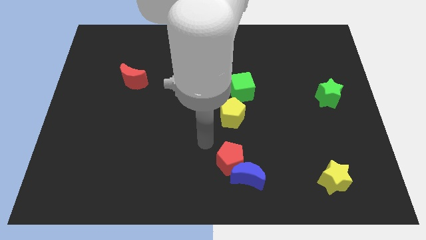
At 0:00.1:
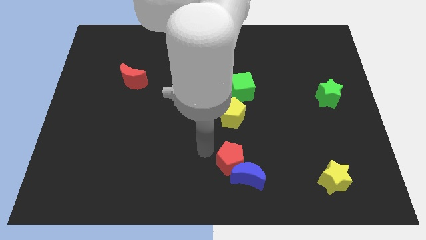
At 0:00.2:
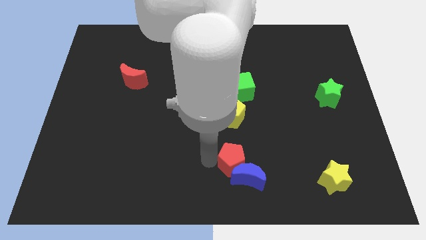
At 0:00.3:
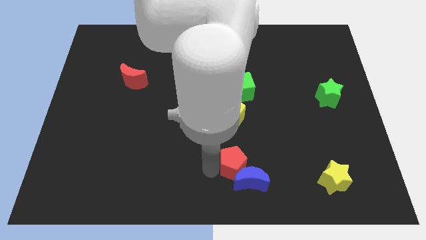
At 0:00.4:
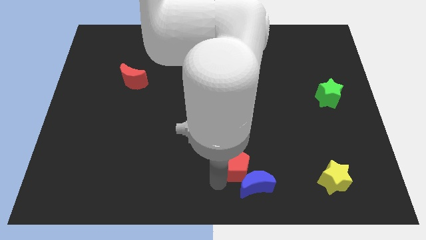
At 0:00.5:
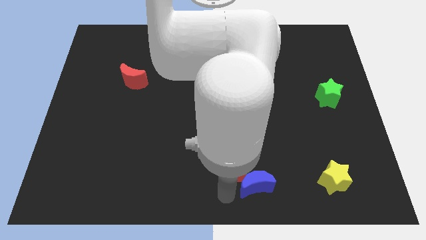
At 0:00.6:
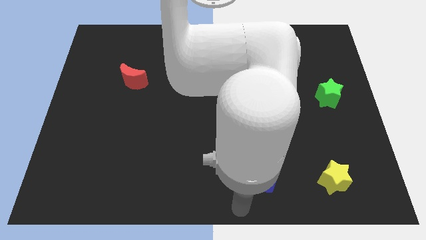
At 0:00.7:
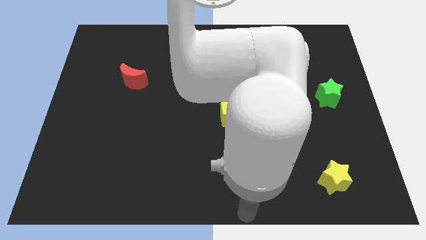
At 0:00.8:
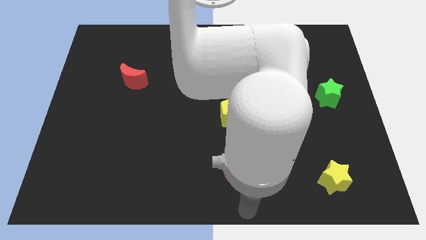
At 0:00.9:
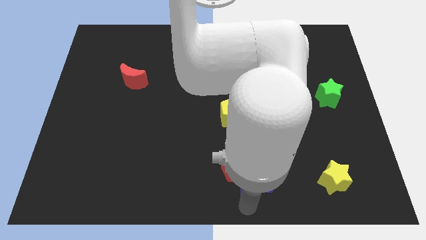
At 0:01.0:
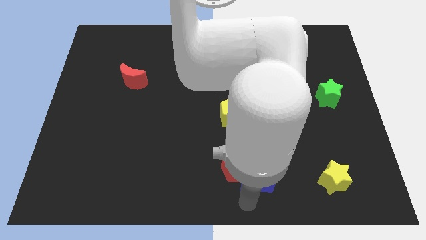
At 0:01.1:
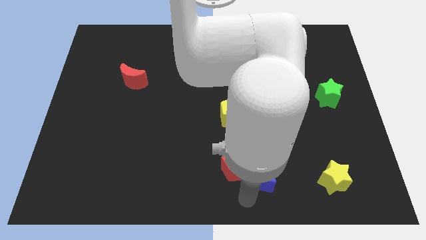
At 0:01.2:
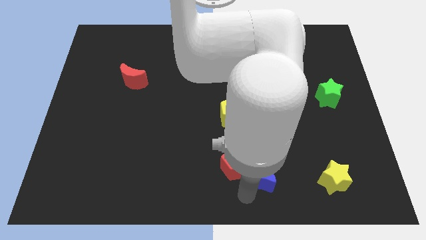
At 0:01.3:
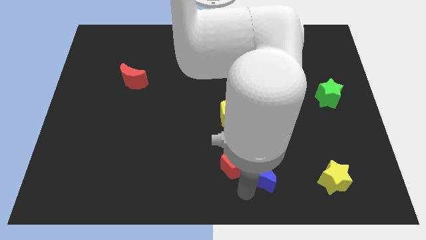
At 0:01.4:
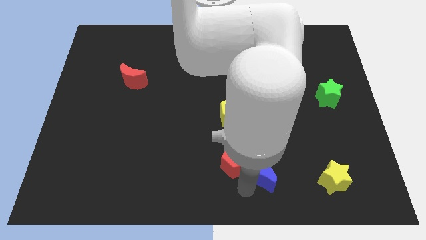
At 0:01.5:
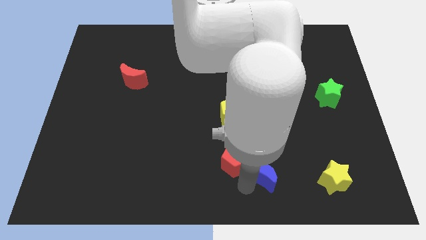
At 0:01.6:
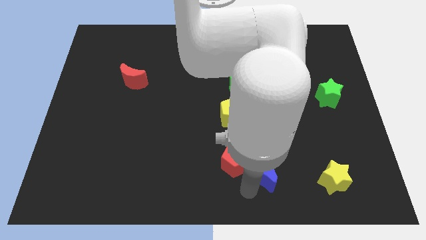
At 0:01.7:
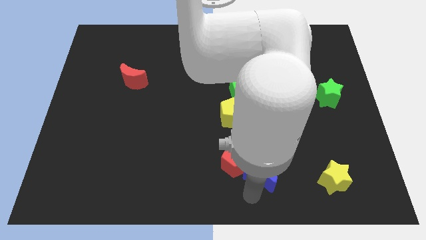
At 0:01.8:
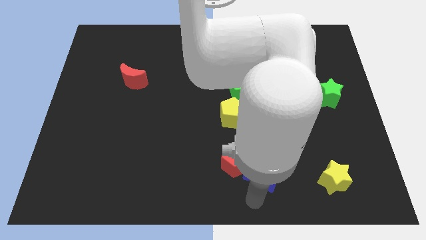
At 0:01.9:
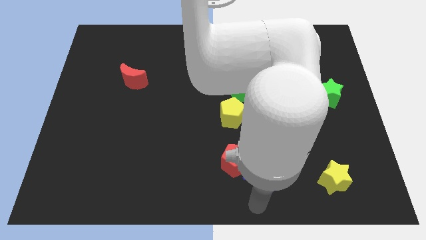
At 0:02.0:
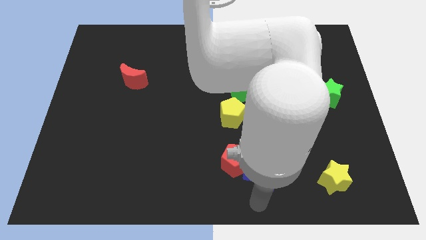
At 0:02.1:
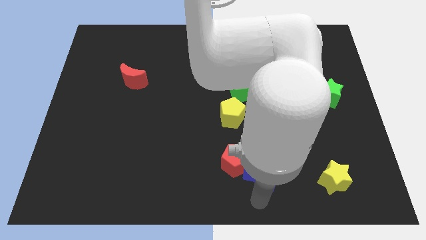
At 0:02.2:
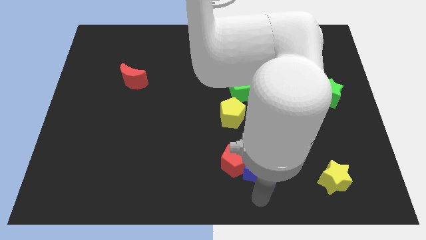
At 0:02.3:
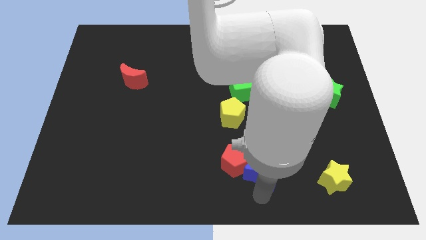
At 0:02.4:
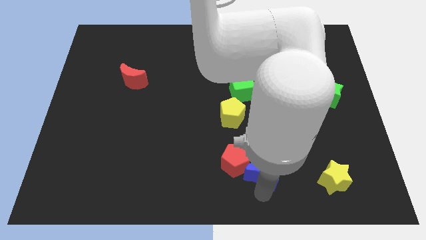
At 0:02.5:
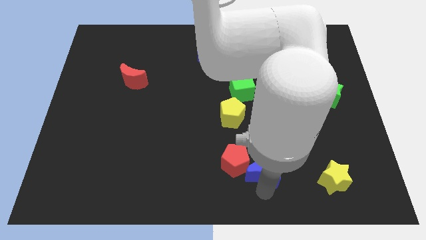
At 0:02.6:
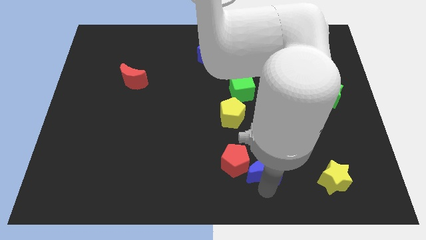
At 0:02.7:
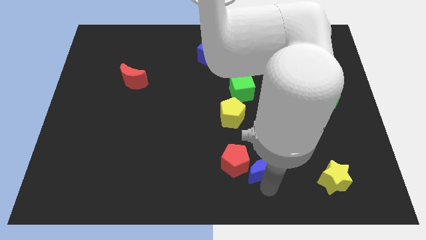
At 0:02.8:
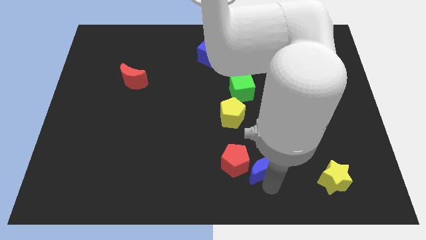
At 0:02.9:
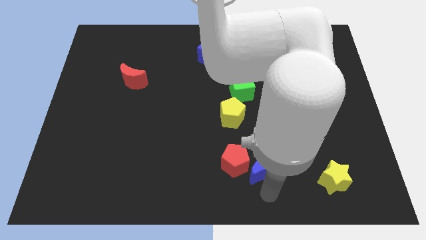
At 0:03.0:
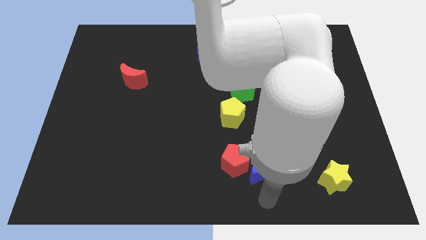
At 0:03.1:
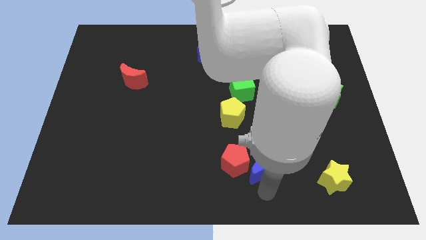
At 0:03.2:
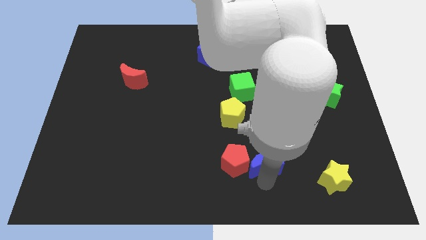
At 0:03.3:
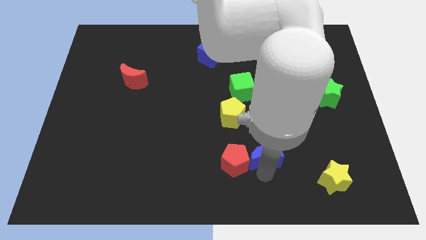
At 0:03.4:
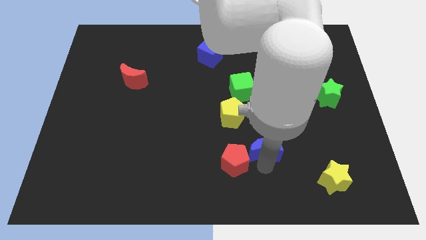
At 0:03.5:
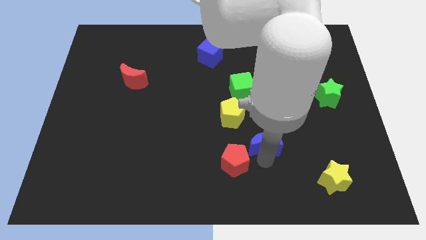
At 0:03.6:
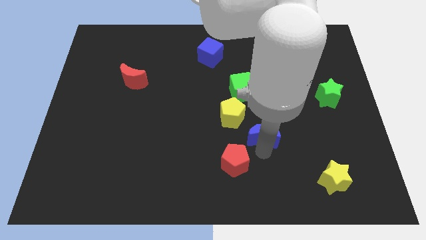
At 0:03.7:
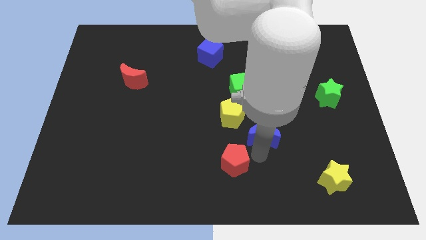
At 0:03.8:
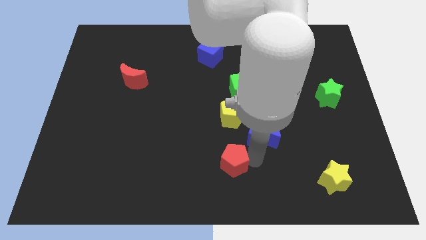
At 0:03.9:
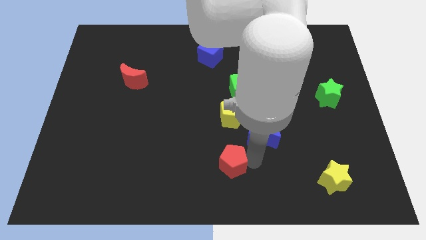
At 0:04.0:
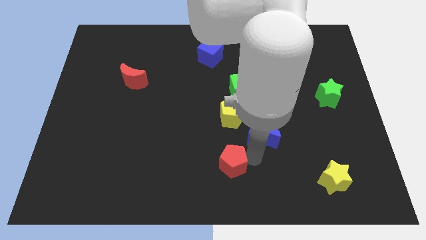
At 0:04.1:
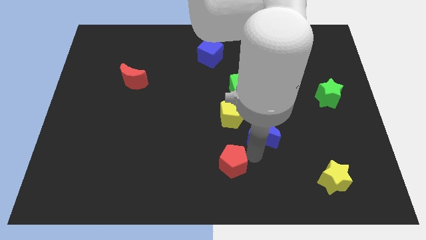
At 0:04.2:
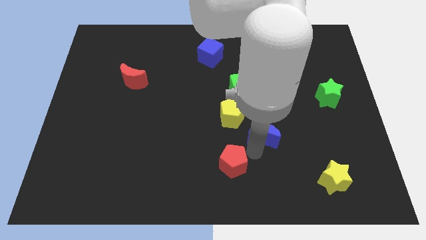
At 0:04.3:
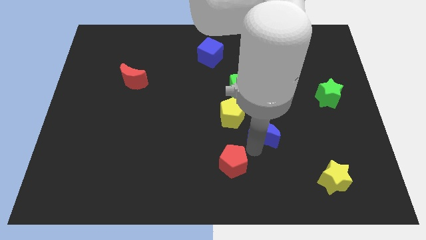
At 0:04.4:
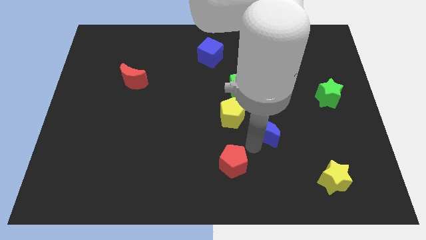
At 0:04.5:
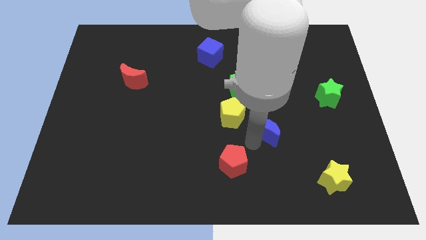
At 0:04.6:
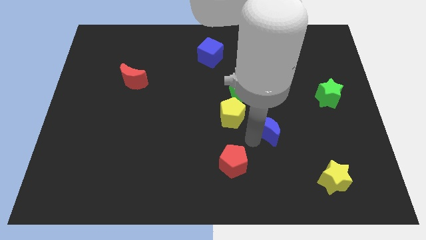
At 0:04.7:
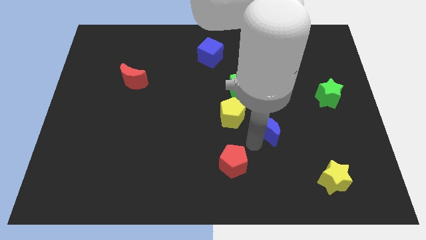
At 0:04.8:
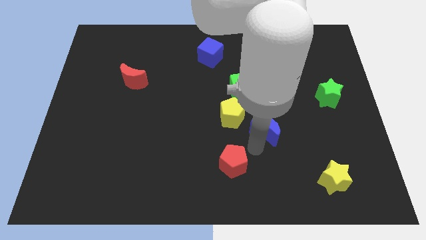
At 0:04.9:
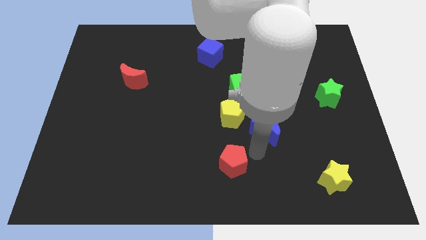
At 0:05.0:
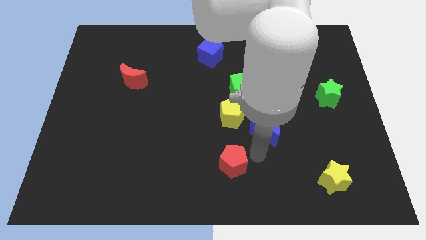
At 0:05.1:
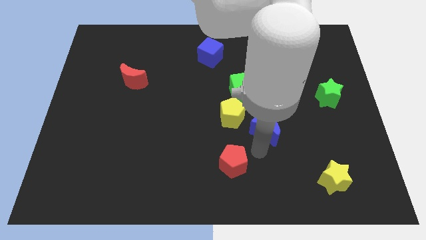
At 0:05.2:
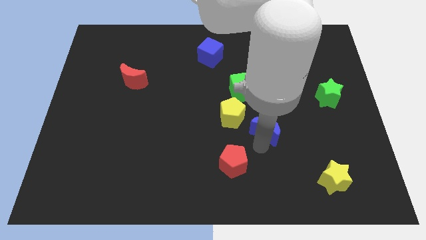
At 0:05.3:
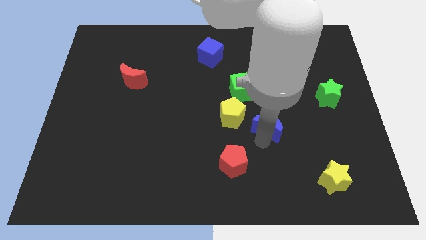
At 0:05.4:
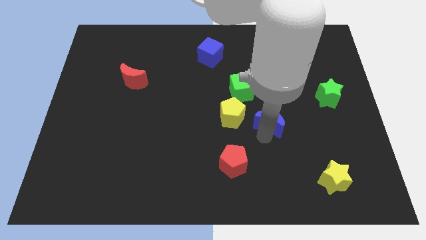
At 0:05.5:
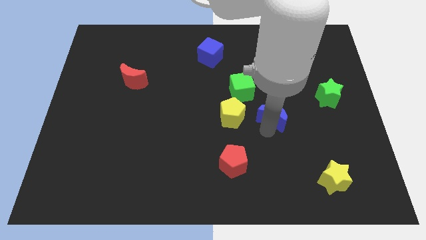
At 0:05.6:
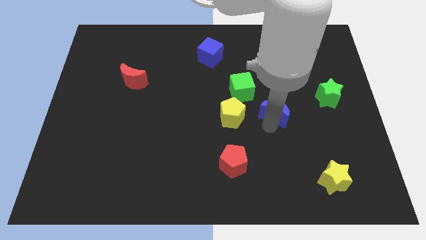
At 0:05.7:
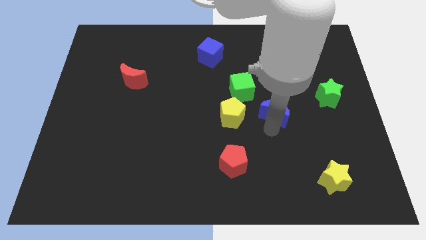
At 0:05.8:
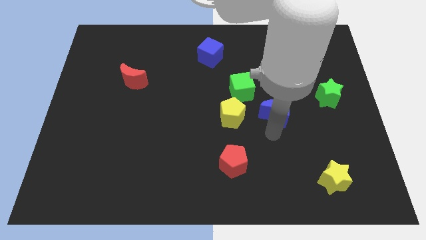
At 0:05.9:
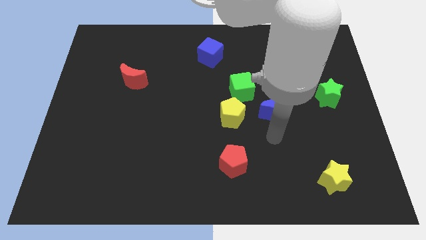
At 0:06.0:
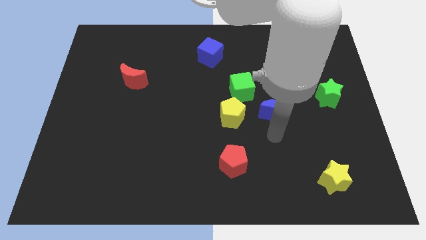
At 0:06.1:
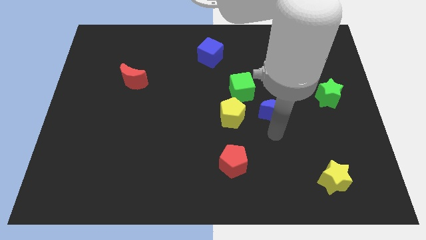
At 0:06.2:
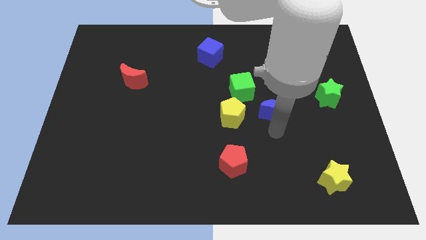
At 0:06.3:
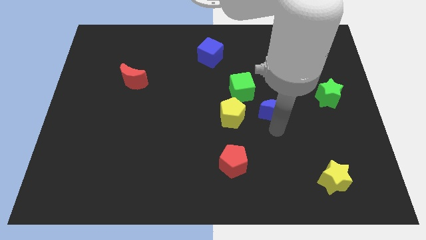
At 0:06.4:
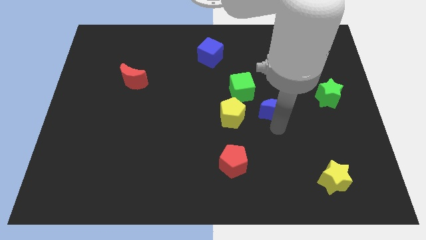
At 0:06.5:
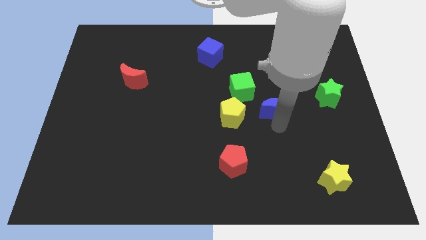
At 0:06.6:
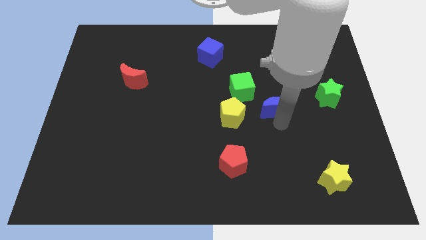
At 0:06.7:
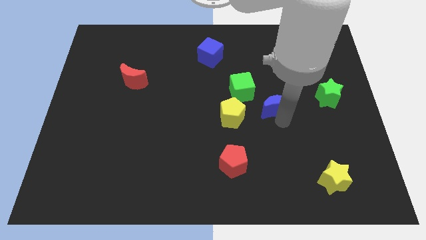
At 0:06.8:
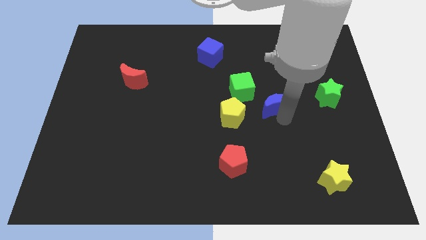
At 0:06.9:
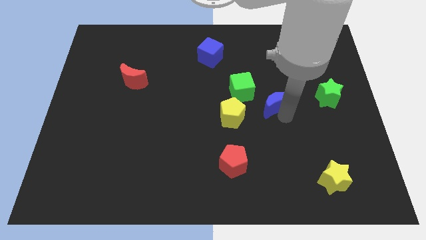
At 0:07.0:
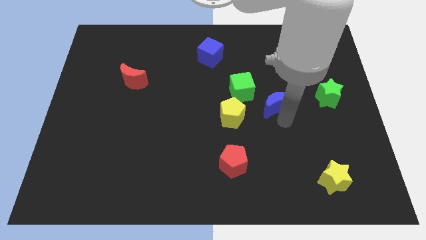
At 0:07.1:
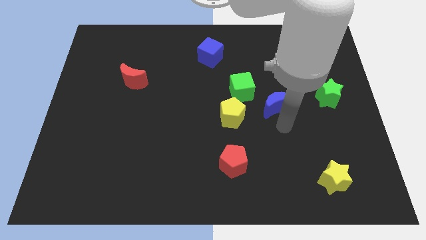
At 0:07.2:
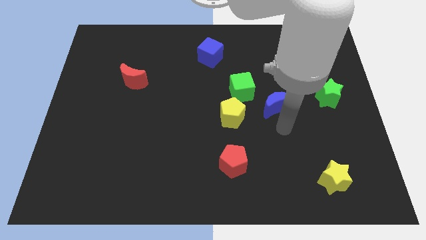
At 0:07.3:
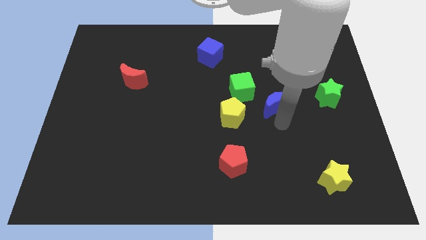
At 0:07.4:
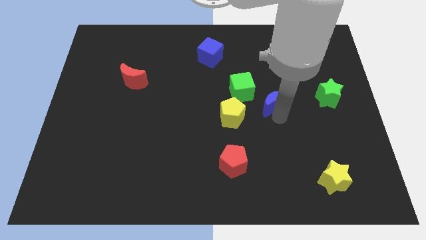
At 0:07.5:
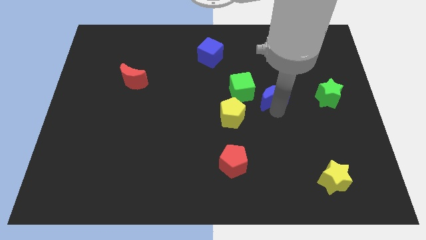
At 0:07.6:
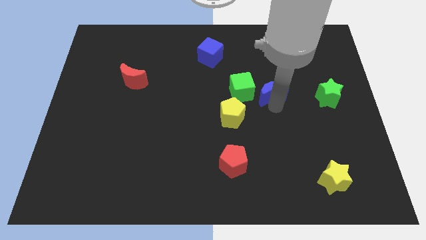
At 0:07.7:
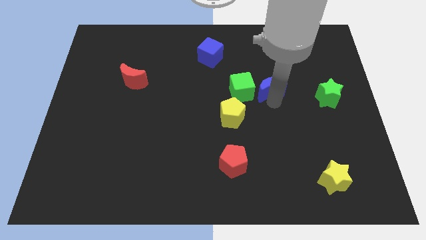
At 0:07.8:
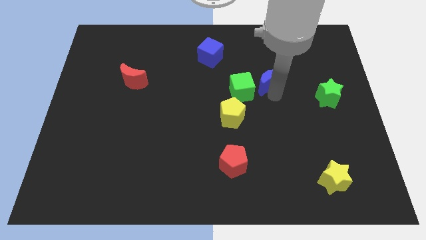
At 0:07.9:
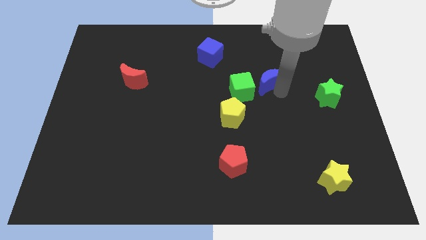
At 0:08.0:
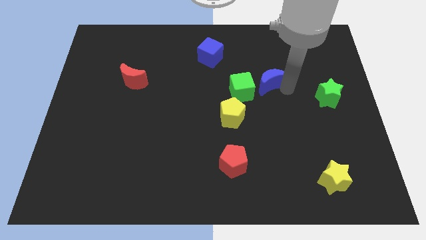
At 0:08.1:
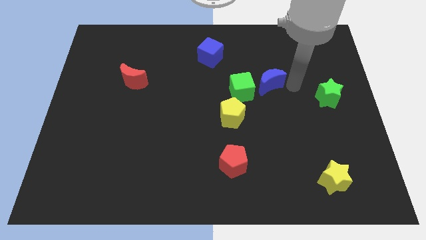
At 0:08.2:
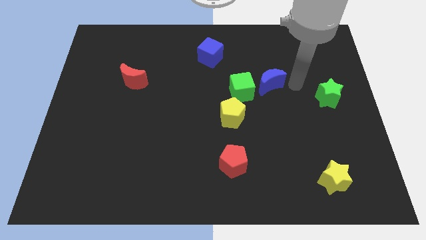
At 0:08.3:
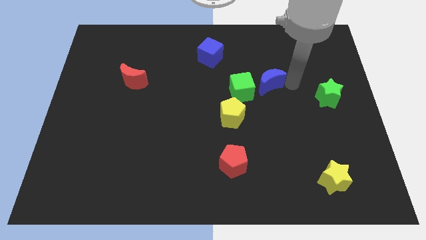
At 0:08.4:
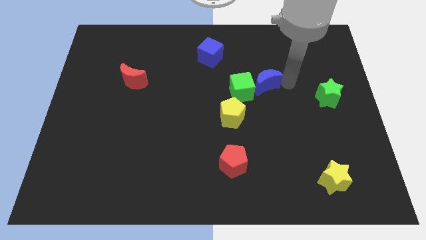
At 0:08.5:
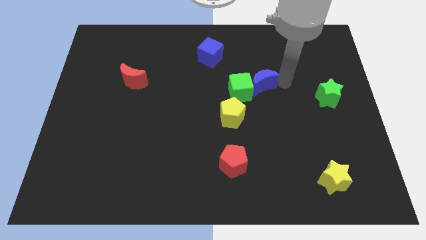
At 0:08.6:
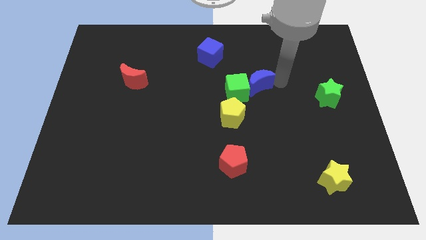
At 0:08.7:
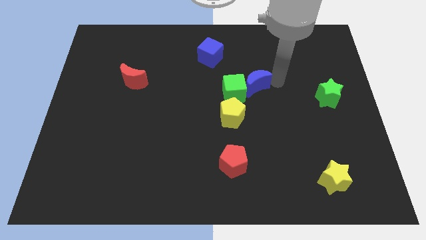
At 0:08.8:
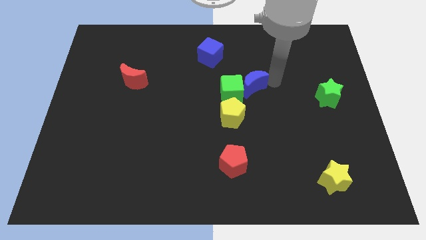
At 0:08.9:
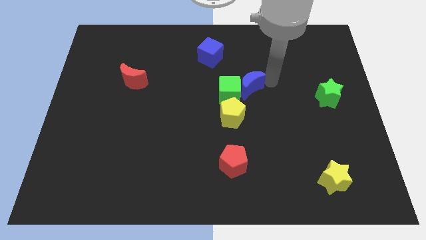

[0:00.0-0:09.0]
push the blue moon to the top side of the yellow pentagon
